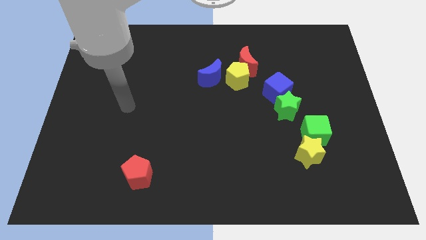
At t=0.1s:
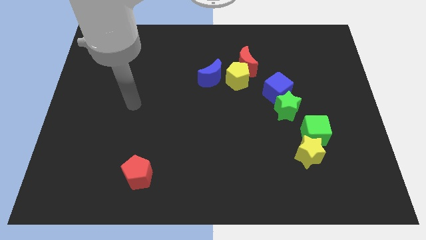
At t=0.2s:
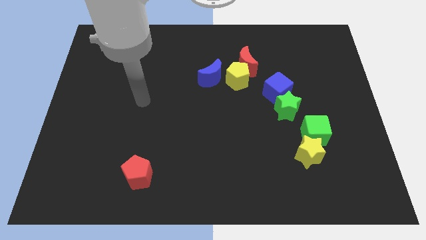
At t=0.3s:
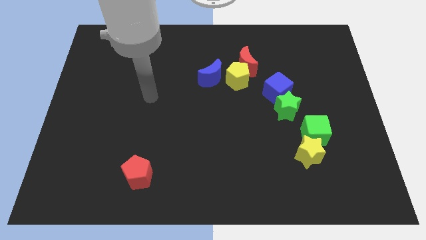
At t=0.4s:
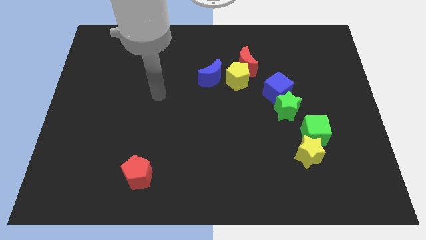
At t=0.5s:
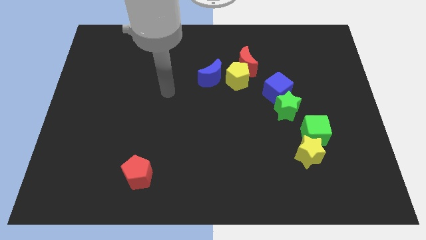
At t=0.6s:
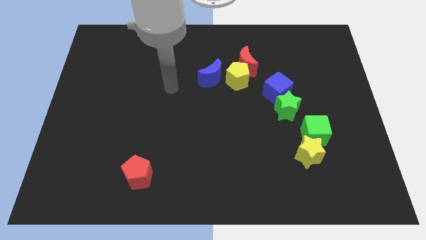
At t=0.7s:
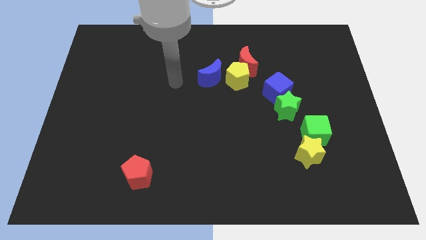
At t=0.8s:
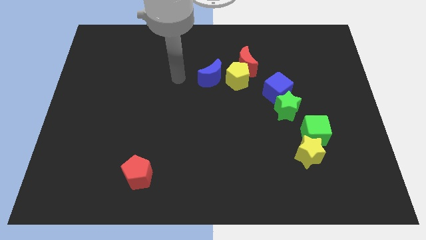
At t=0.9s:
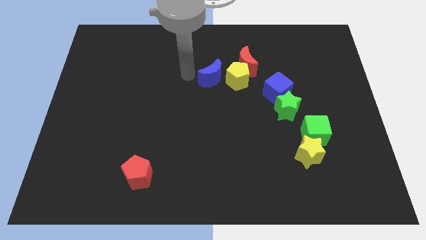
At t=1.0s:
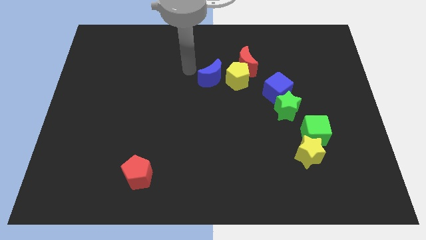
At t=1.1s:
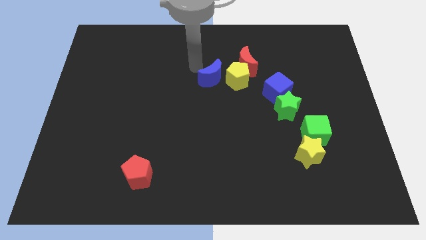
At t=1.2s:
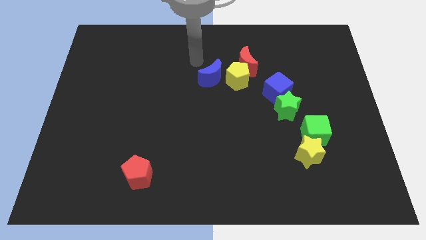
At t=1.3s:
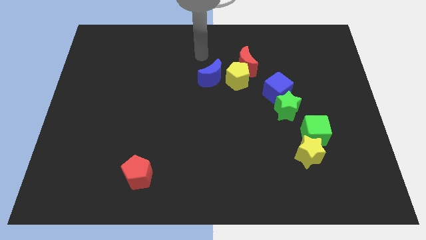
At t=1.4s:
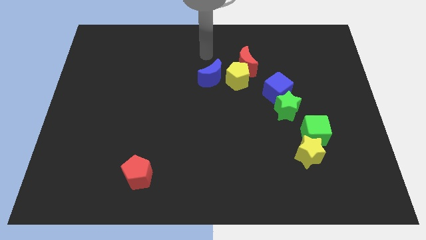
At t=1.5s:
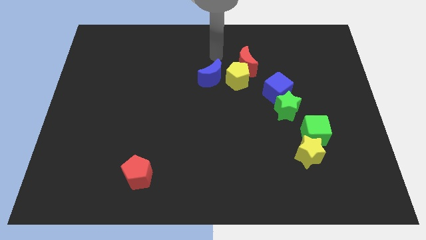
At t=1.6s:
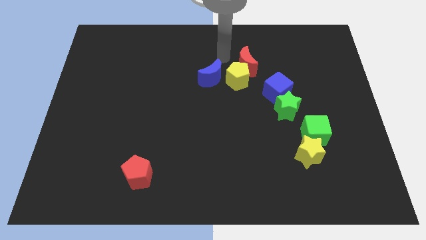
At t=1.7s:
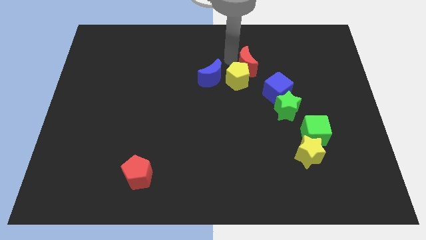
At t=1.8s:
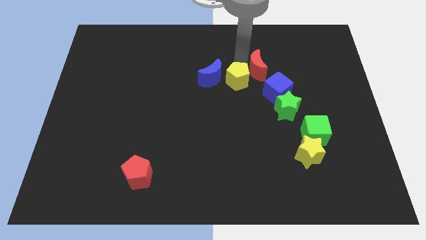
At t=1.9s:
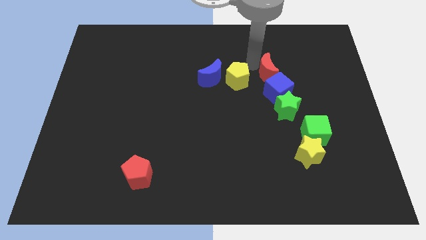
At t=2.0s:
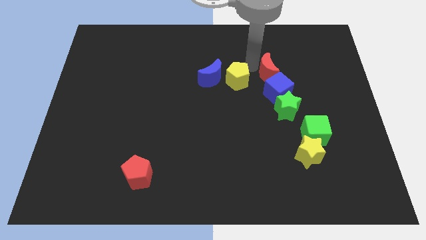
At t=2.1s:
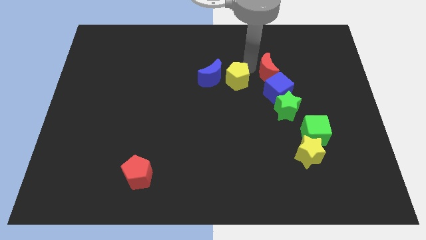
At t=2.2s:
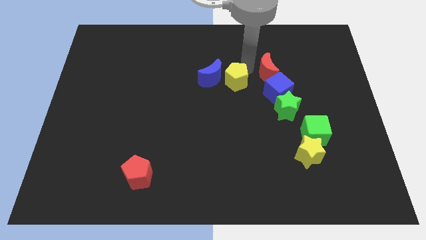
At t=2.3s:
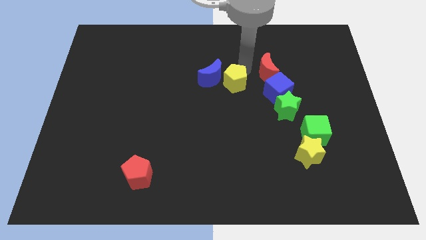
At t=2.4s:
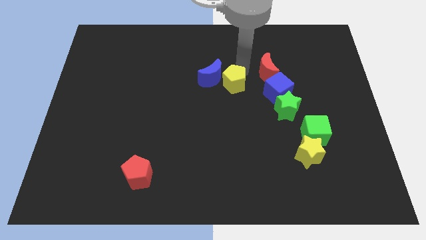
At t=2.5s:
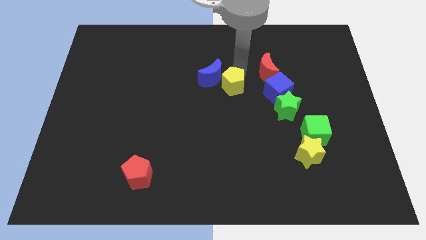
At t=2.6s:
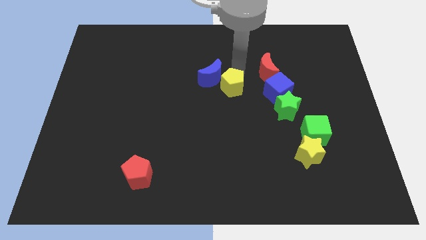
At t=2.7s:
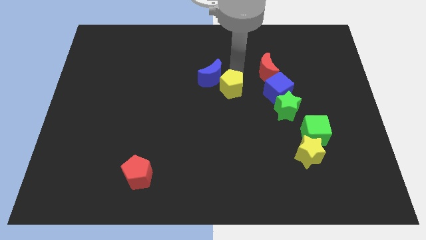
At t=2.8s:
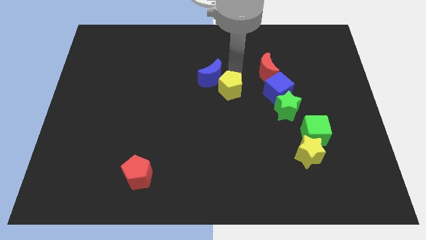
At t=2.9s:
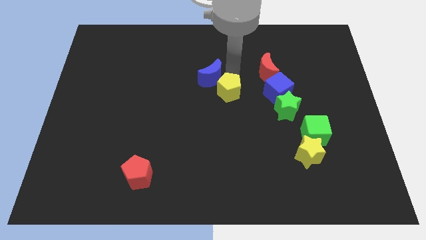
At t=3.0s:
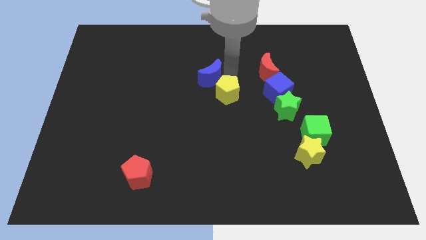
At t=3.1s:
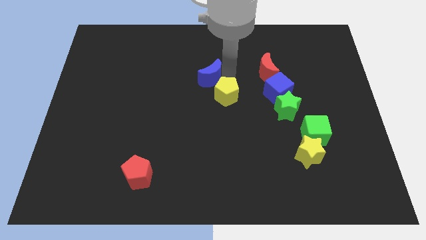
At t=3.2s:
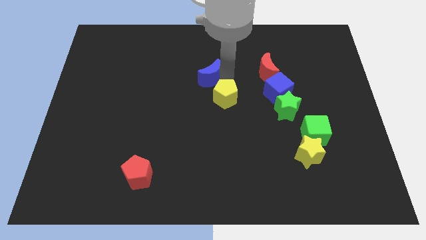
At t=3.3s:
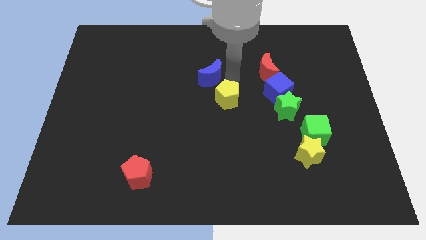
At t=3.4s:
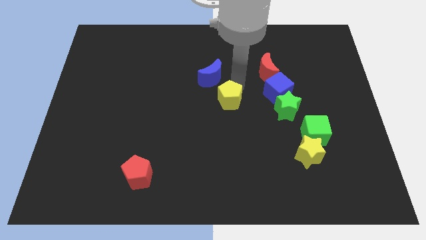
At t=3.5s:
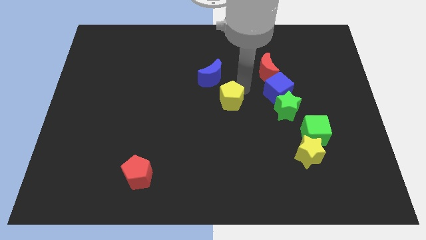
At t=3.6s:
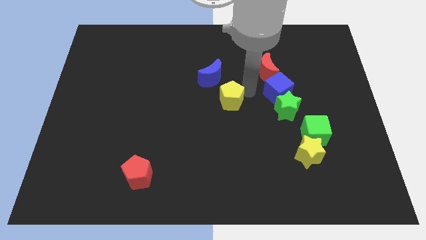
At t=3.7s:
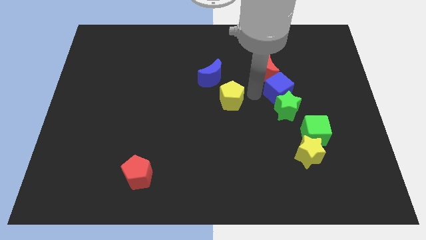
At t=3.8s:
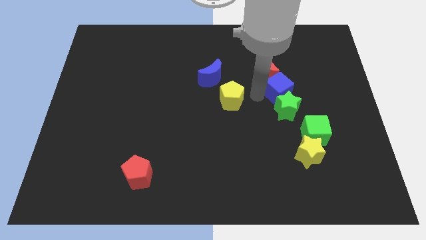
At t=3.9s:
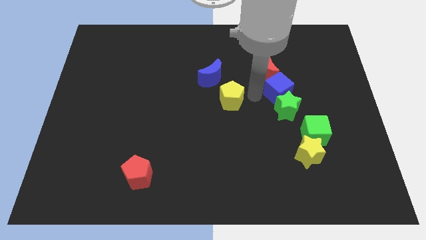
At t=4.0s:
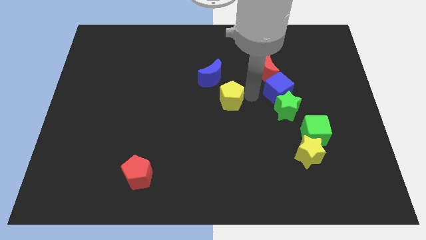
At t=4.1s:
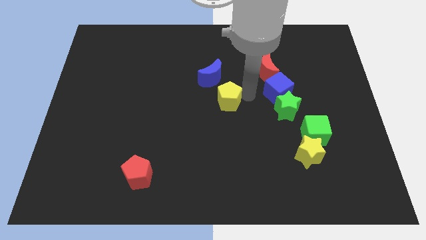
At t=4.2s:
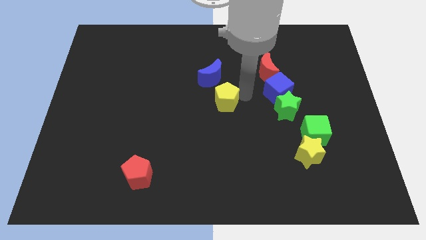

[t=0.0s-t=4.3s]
slide the yellow pentagon a little bit down and to the left diagonally

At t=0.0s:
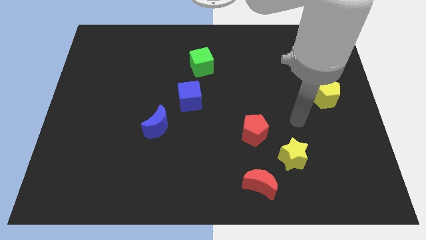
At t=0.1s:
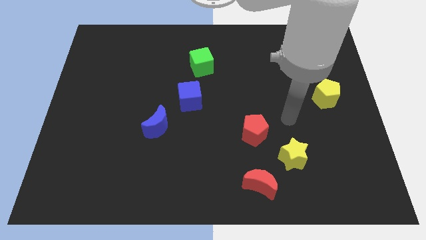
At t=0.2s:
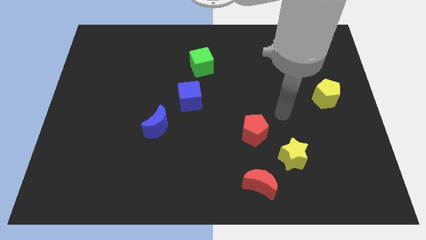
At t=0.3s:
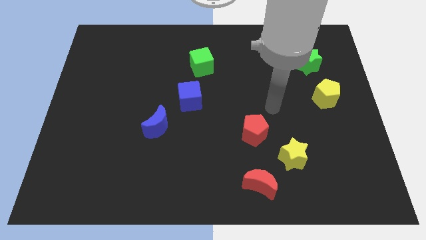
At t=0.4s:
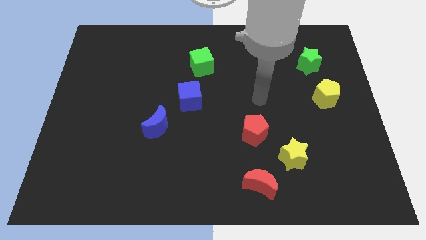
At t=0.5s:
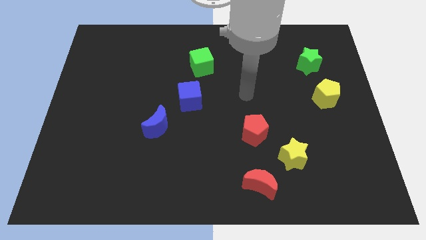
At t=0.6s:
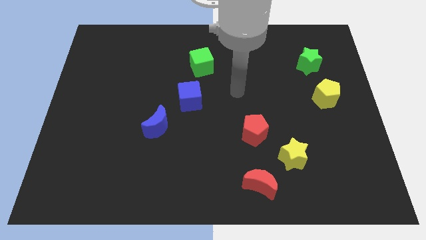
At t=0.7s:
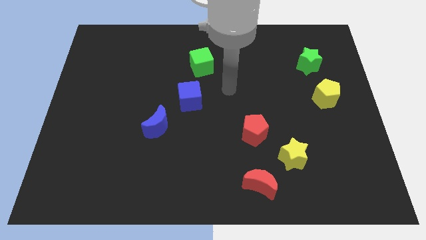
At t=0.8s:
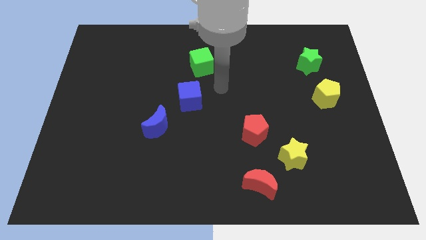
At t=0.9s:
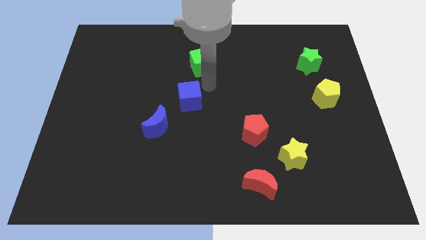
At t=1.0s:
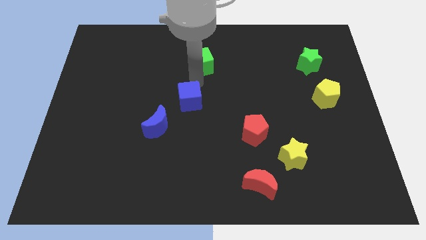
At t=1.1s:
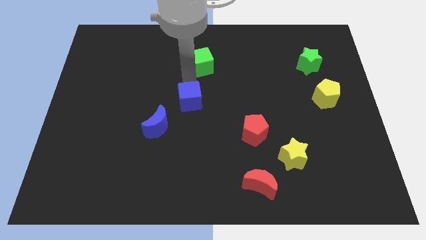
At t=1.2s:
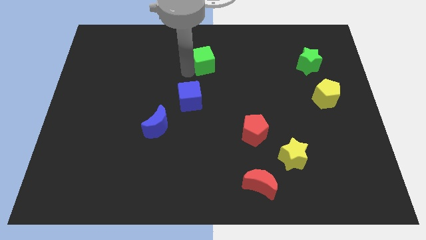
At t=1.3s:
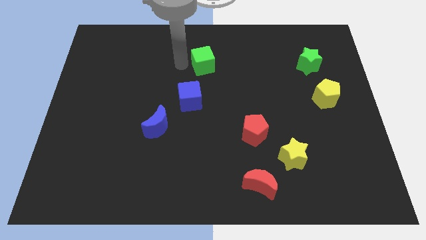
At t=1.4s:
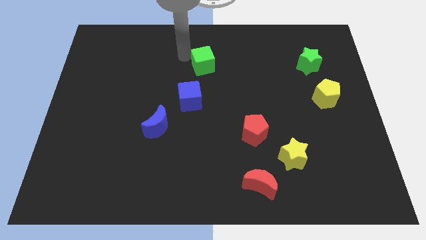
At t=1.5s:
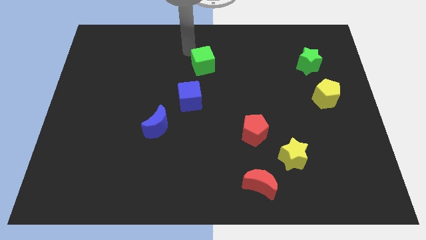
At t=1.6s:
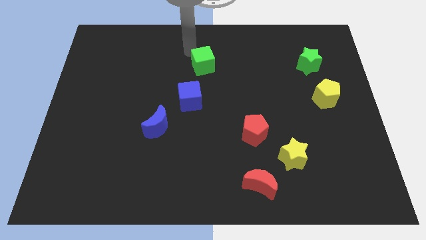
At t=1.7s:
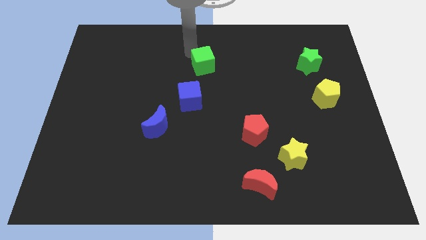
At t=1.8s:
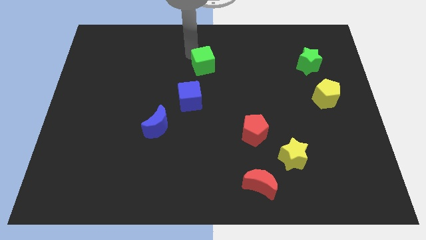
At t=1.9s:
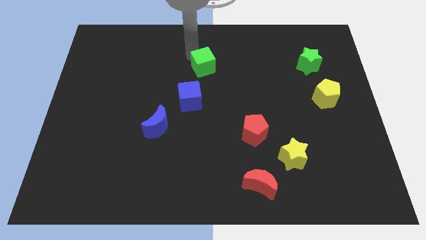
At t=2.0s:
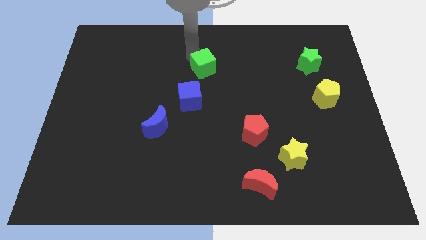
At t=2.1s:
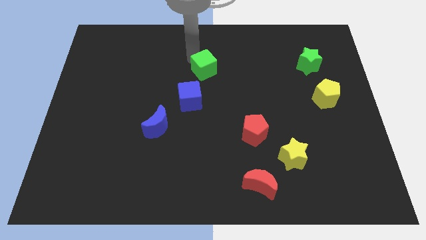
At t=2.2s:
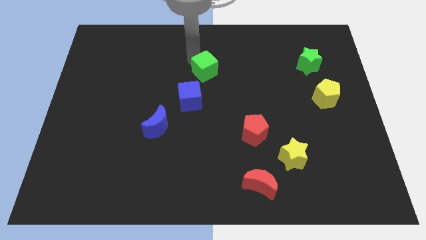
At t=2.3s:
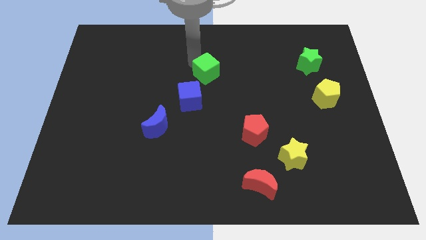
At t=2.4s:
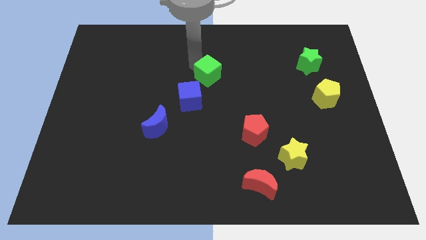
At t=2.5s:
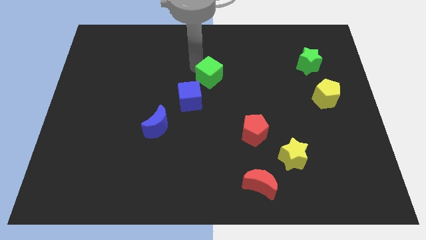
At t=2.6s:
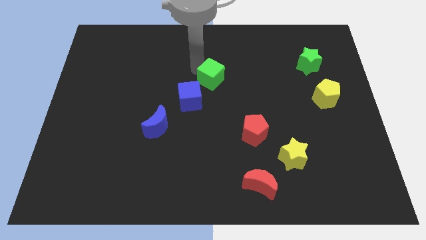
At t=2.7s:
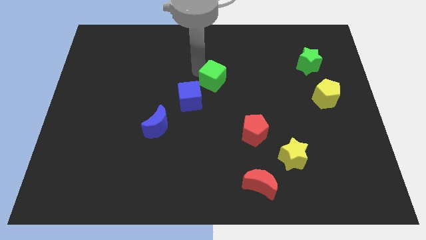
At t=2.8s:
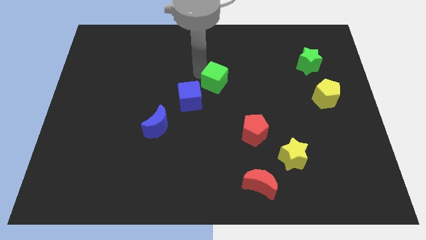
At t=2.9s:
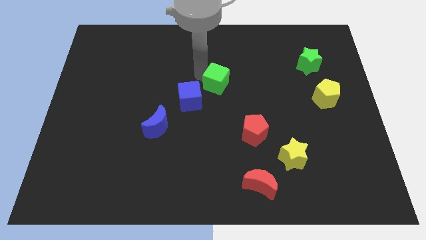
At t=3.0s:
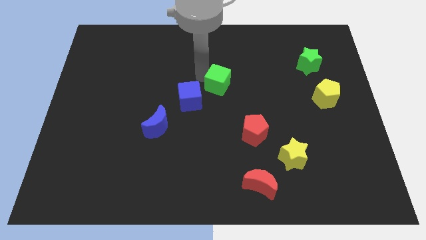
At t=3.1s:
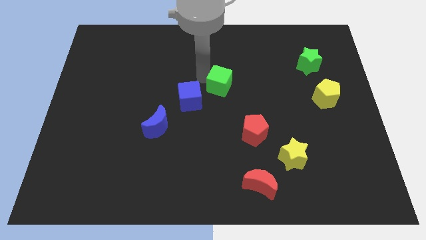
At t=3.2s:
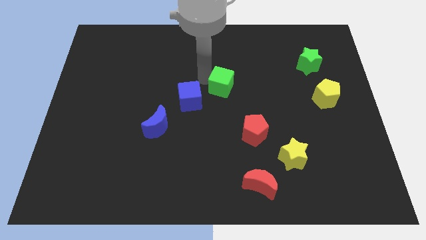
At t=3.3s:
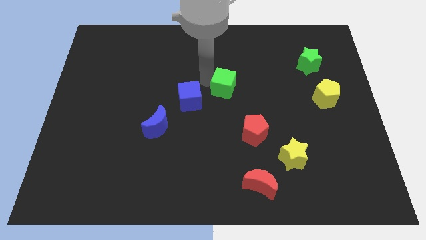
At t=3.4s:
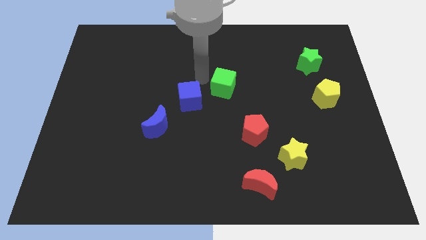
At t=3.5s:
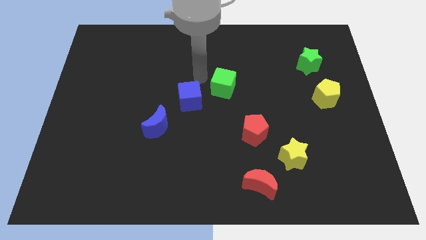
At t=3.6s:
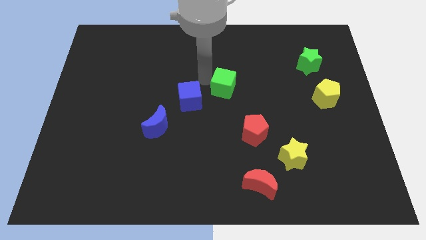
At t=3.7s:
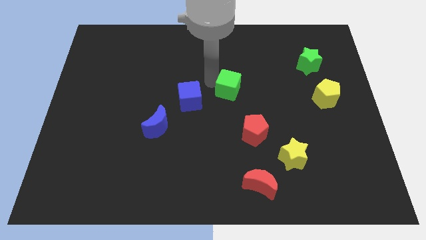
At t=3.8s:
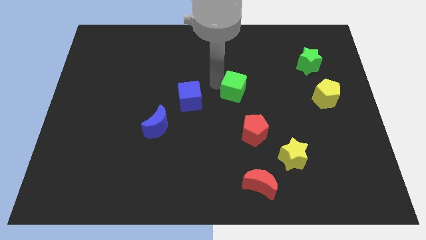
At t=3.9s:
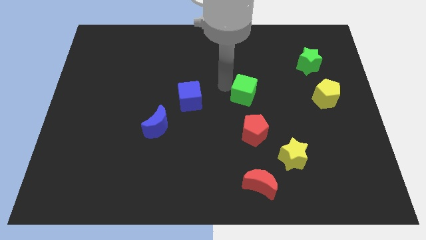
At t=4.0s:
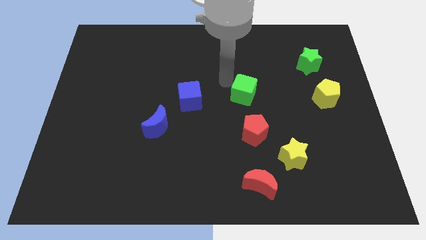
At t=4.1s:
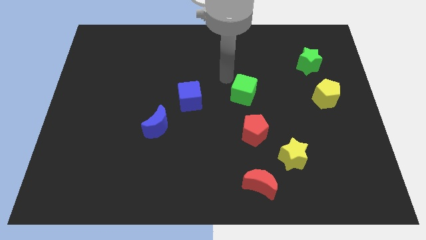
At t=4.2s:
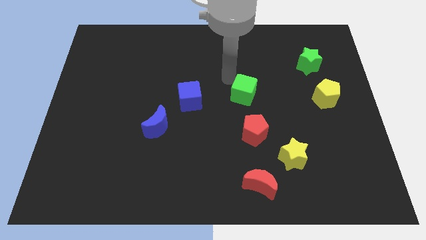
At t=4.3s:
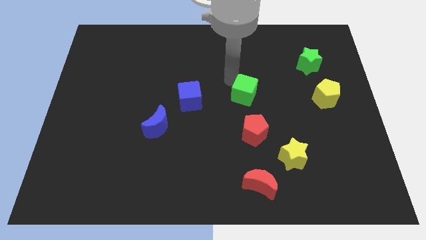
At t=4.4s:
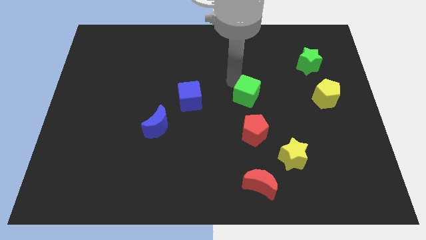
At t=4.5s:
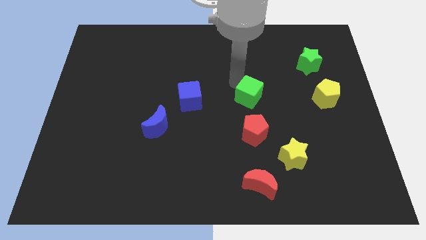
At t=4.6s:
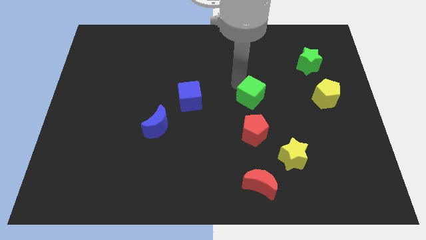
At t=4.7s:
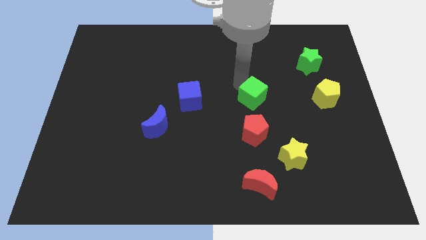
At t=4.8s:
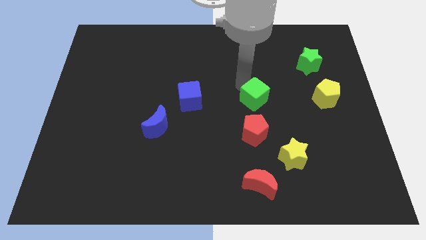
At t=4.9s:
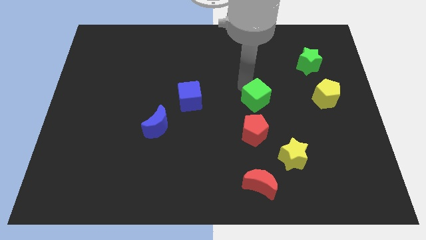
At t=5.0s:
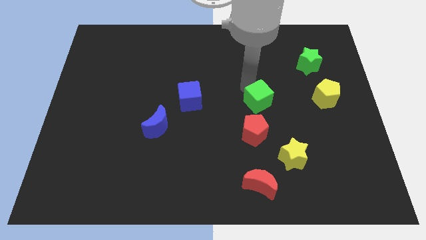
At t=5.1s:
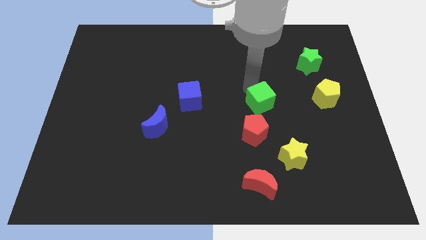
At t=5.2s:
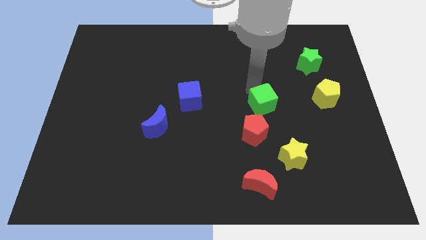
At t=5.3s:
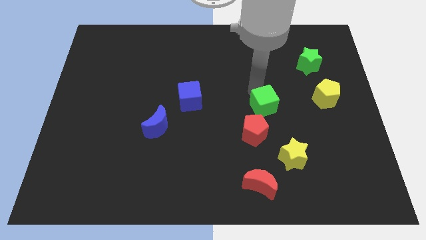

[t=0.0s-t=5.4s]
push the green cube down and then to the right
